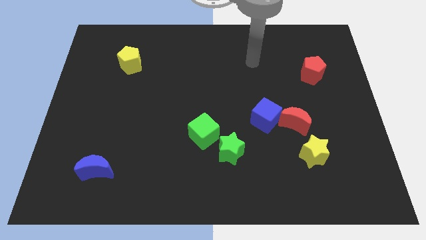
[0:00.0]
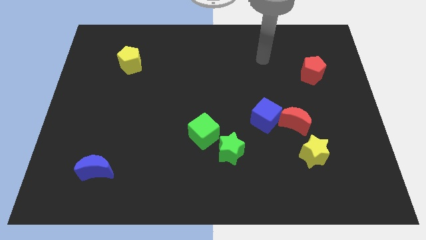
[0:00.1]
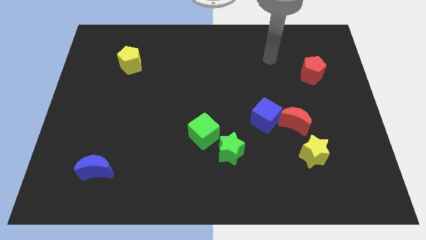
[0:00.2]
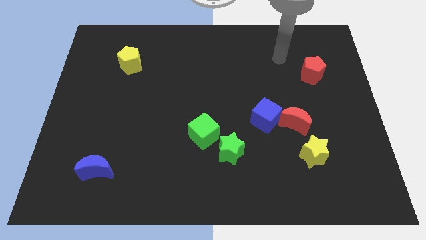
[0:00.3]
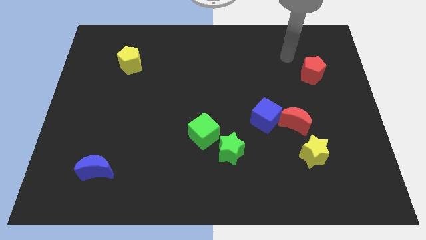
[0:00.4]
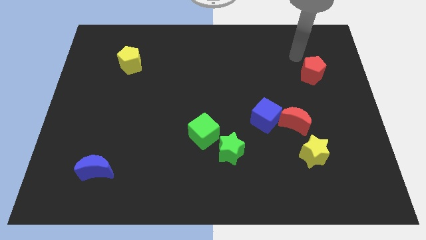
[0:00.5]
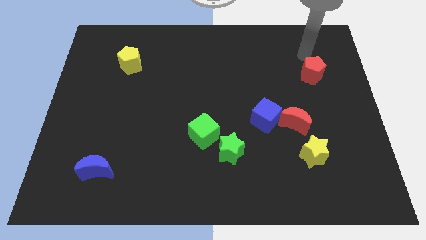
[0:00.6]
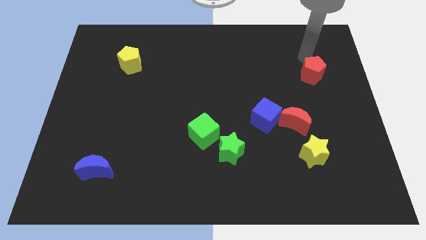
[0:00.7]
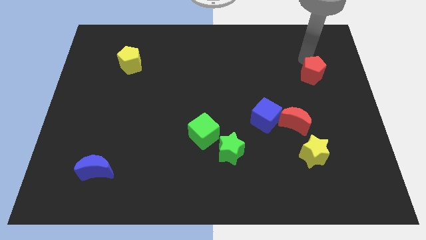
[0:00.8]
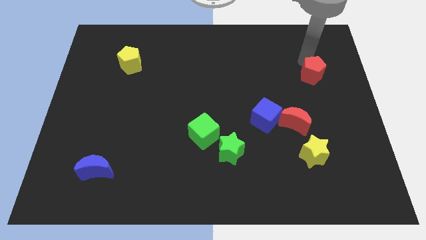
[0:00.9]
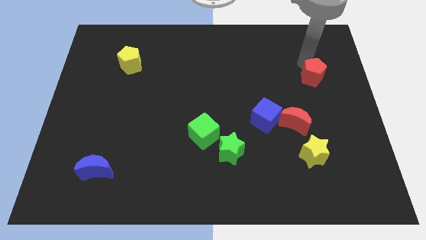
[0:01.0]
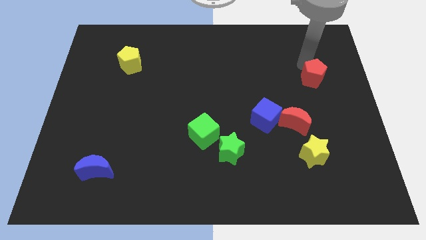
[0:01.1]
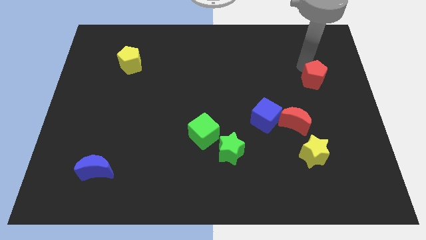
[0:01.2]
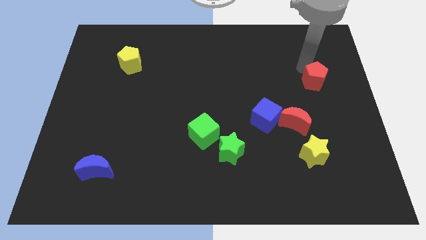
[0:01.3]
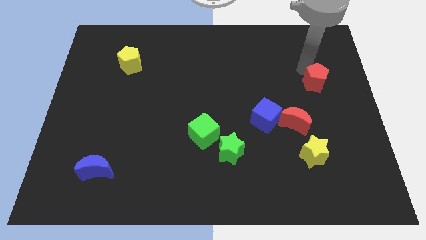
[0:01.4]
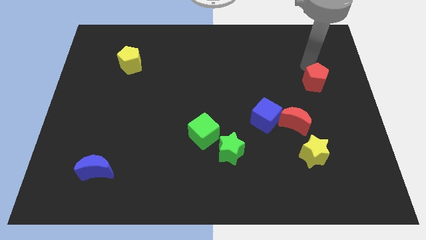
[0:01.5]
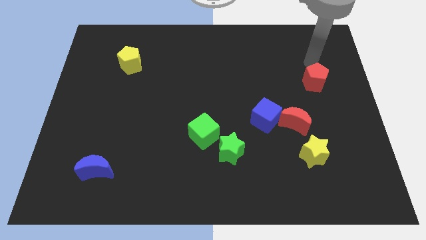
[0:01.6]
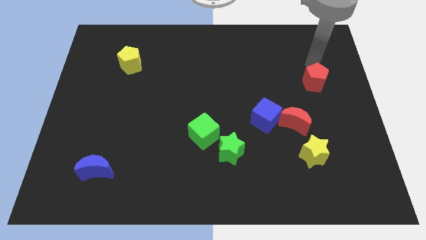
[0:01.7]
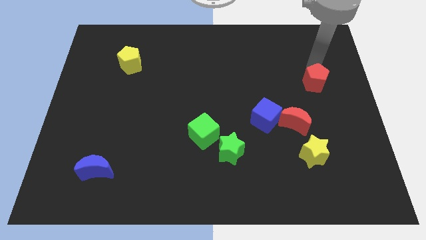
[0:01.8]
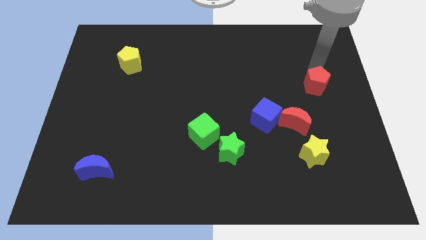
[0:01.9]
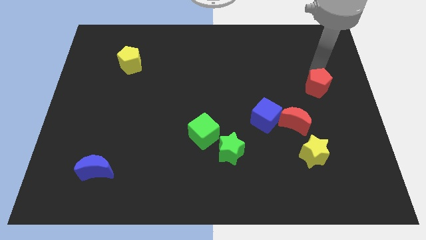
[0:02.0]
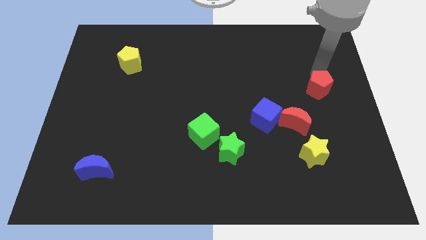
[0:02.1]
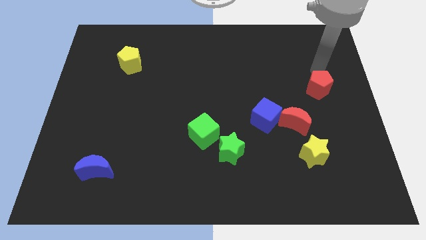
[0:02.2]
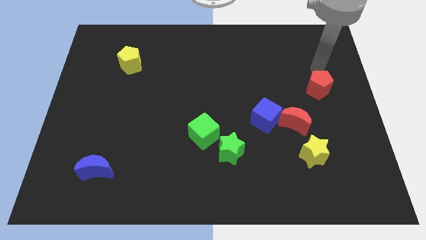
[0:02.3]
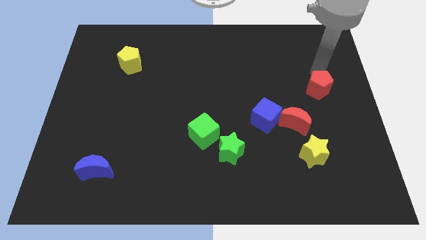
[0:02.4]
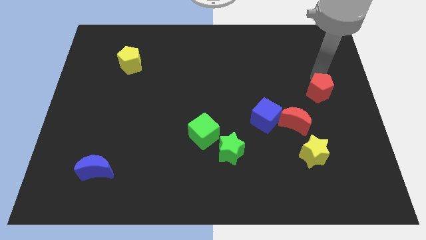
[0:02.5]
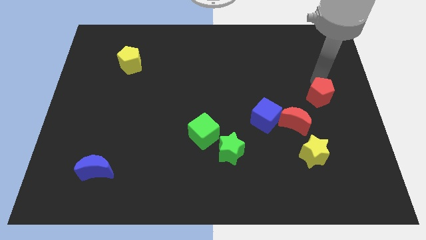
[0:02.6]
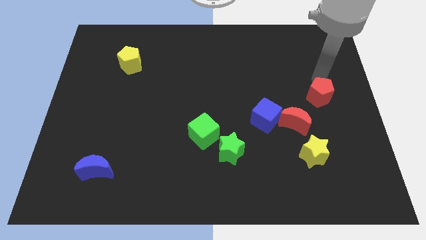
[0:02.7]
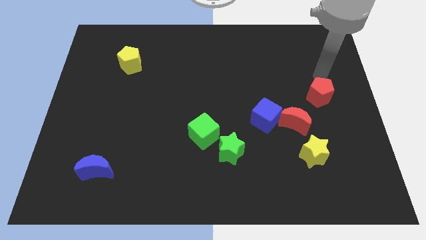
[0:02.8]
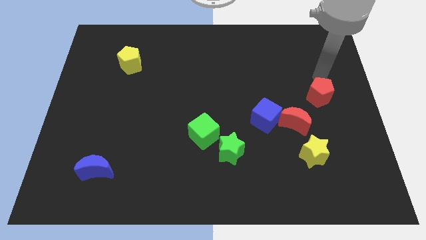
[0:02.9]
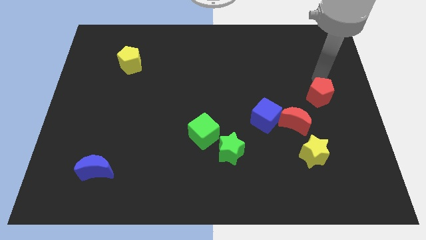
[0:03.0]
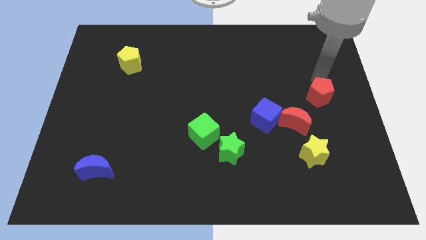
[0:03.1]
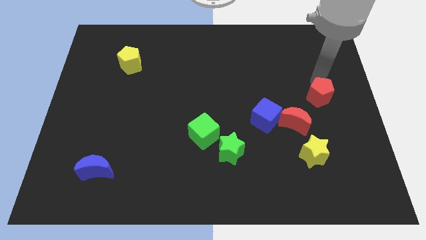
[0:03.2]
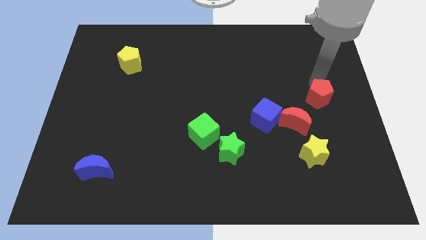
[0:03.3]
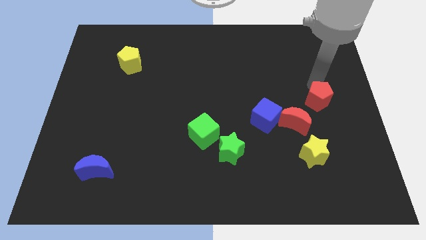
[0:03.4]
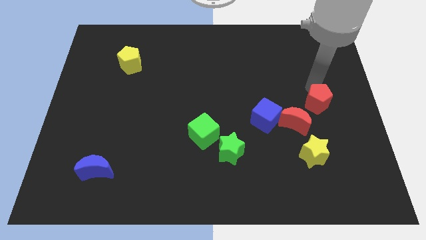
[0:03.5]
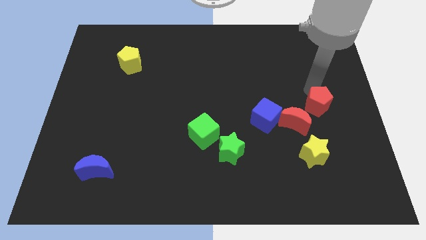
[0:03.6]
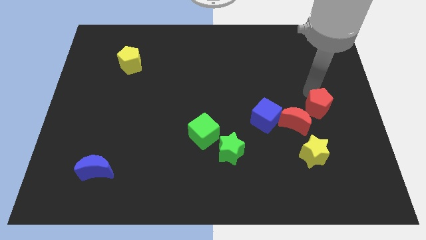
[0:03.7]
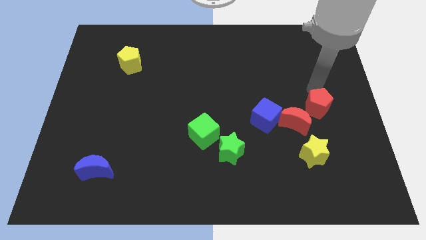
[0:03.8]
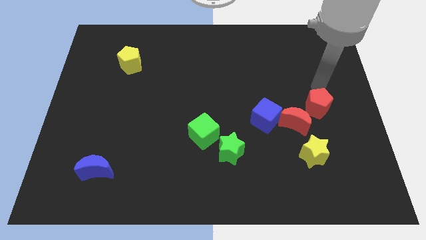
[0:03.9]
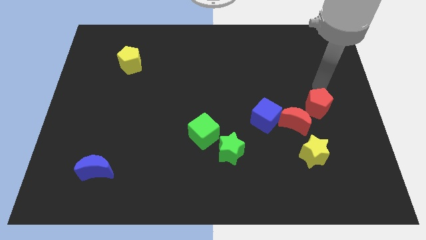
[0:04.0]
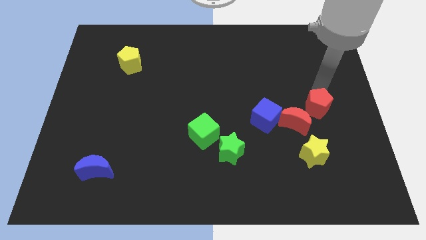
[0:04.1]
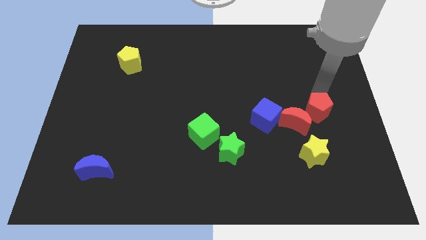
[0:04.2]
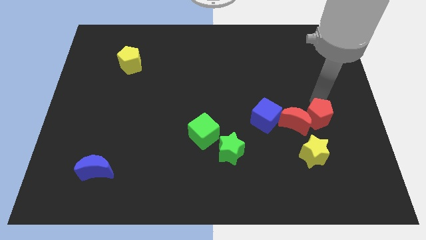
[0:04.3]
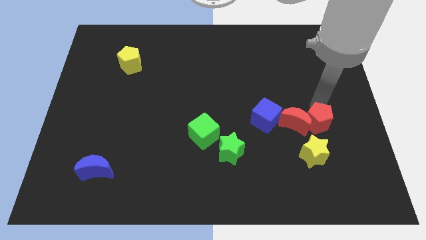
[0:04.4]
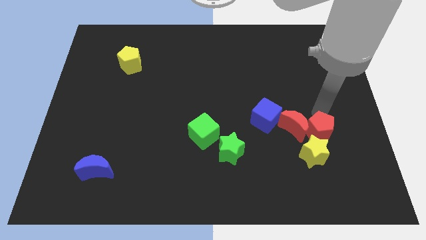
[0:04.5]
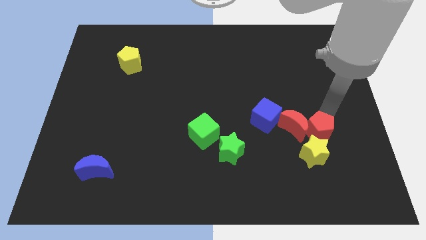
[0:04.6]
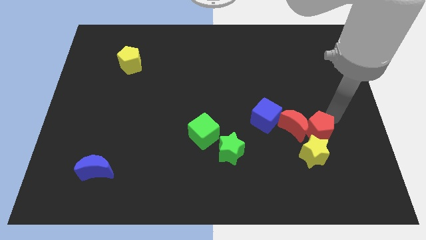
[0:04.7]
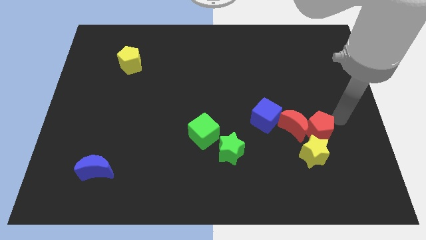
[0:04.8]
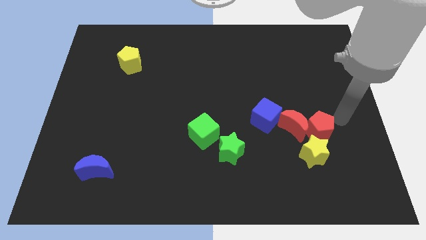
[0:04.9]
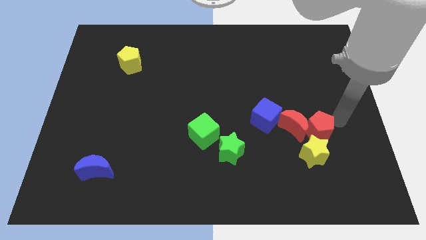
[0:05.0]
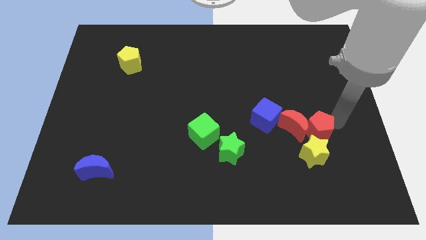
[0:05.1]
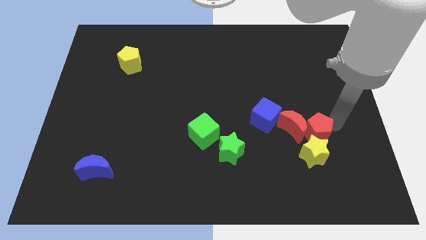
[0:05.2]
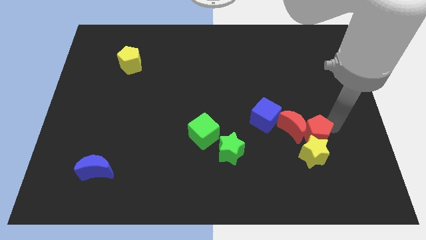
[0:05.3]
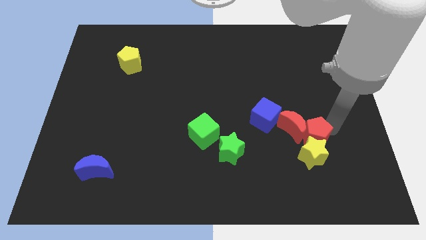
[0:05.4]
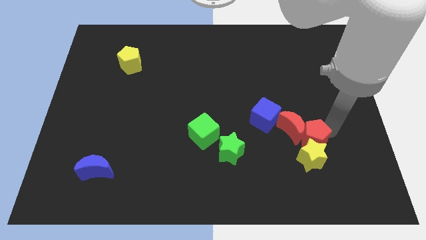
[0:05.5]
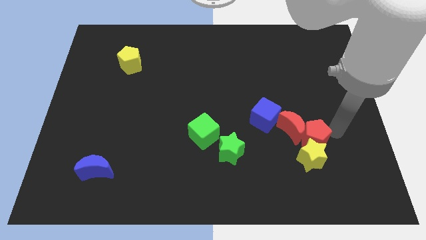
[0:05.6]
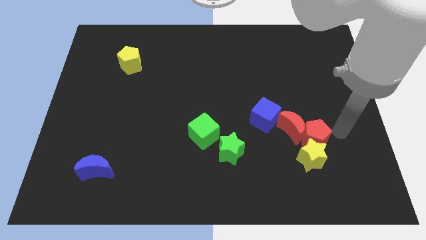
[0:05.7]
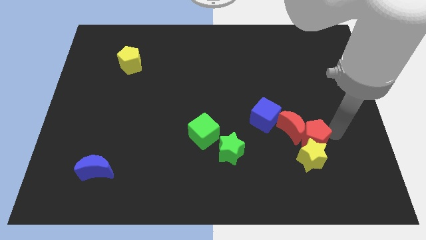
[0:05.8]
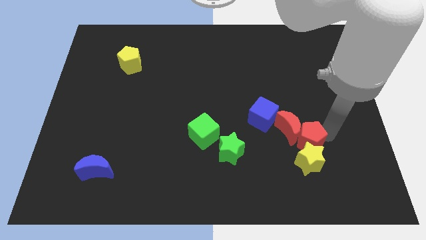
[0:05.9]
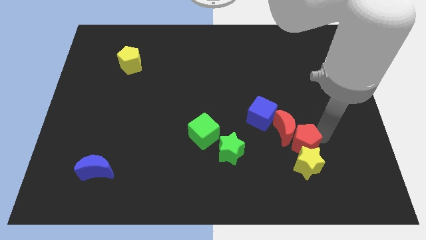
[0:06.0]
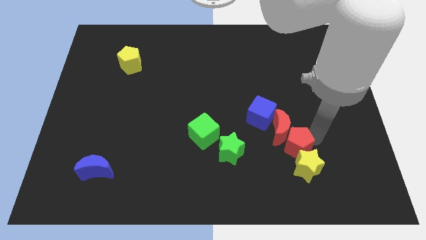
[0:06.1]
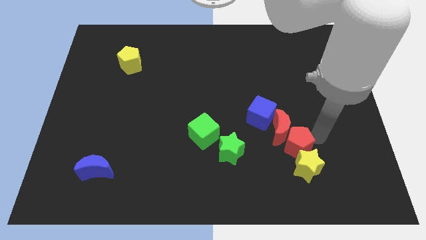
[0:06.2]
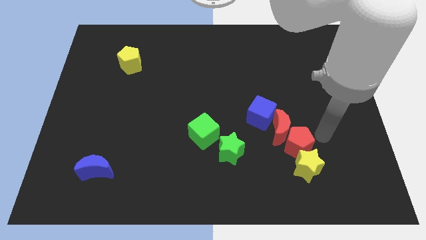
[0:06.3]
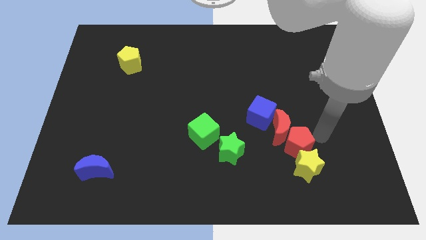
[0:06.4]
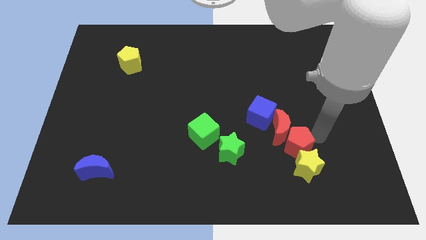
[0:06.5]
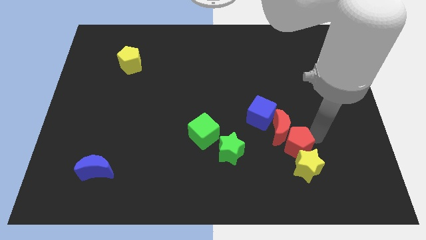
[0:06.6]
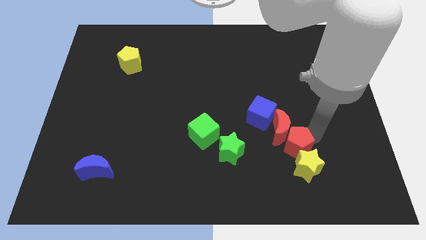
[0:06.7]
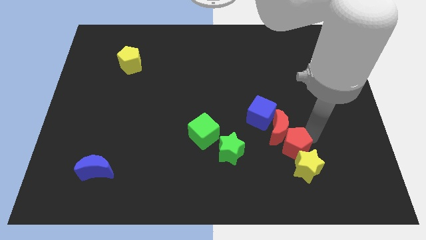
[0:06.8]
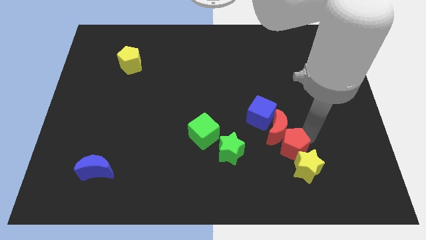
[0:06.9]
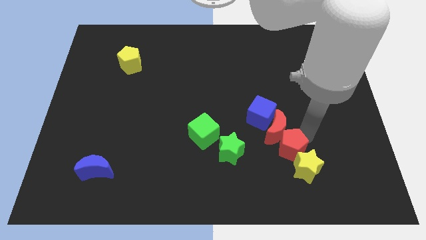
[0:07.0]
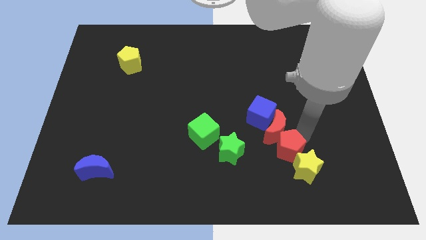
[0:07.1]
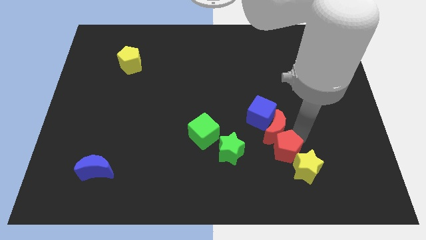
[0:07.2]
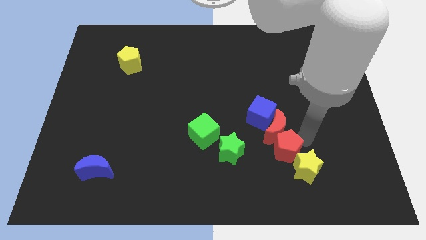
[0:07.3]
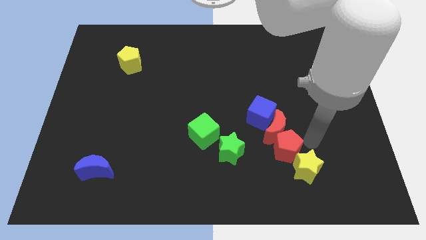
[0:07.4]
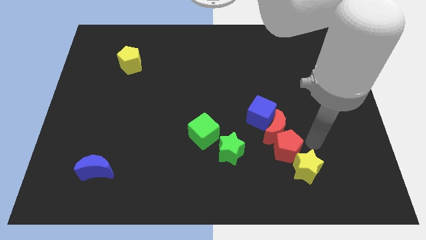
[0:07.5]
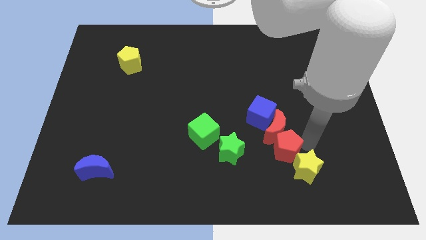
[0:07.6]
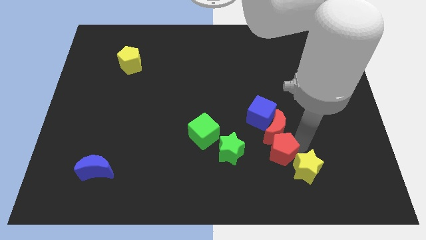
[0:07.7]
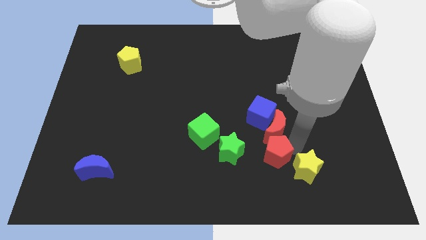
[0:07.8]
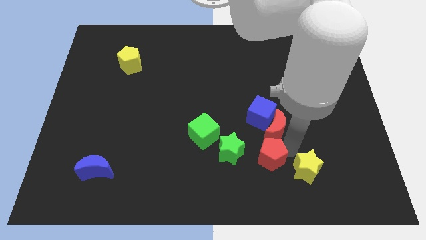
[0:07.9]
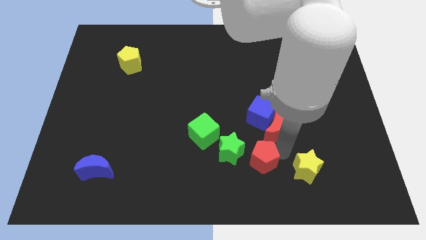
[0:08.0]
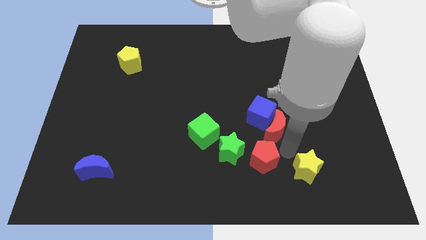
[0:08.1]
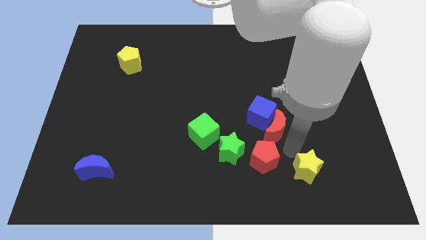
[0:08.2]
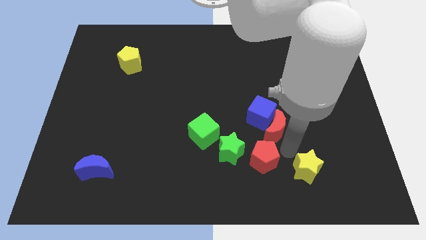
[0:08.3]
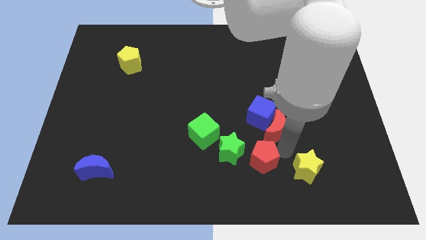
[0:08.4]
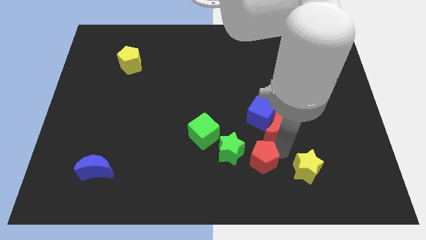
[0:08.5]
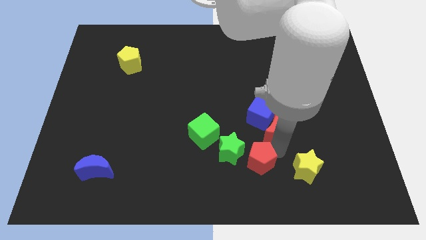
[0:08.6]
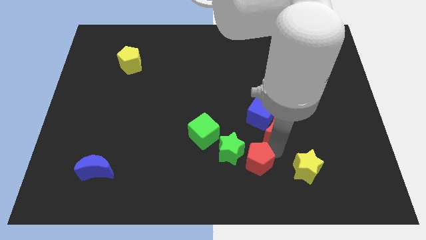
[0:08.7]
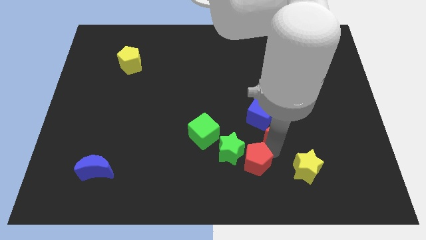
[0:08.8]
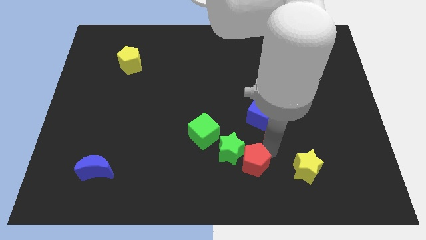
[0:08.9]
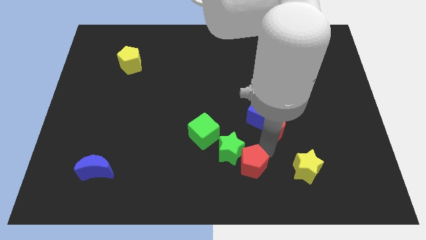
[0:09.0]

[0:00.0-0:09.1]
push the red pentagon diagonally down and to the right of the green cube
